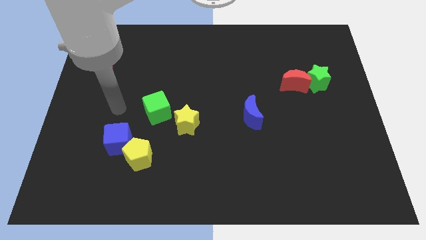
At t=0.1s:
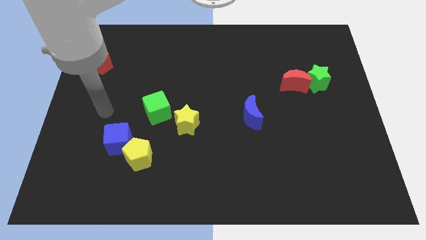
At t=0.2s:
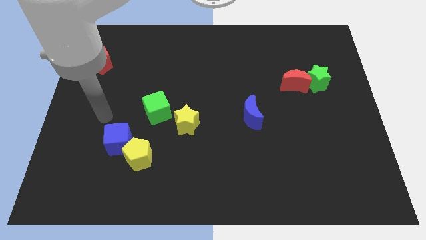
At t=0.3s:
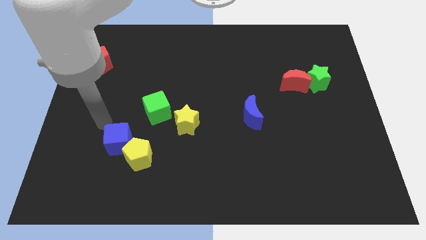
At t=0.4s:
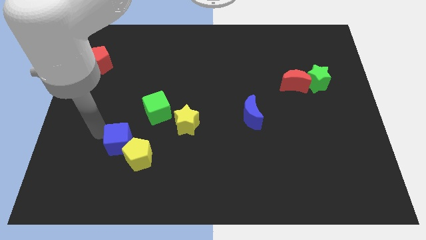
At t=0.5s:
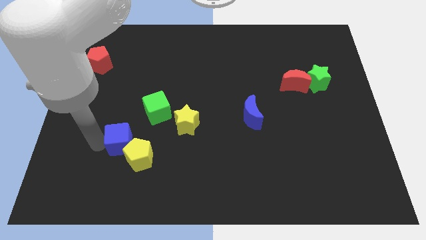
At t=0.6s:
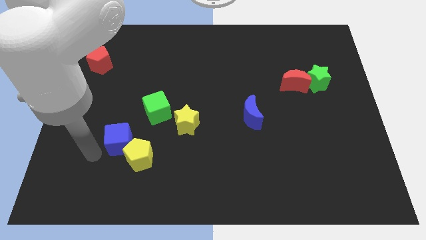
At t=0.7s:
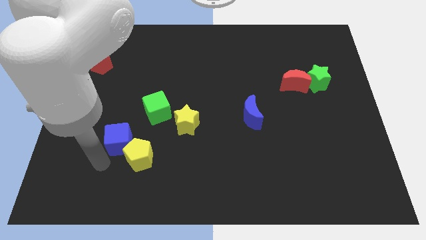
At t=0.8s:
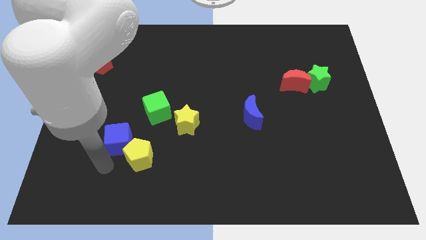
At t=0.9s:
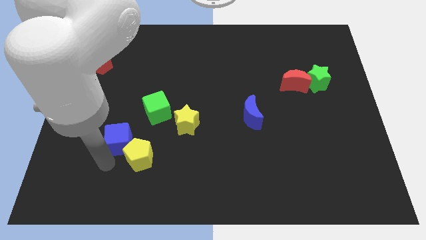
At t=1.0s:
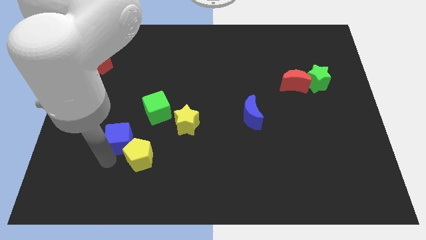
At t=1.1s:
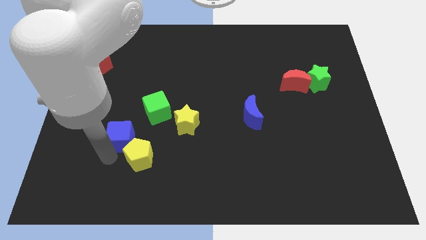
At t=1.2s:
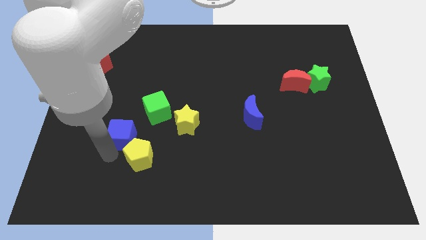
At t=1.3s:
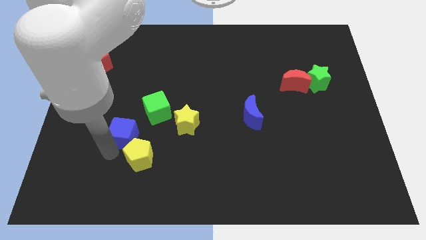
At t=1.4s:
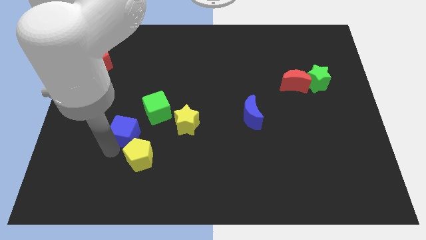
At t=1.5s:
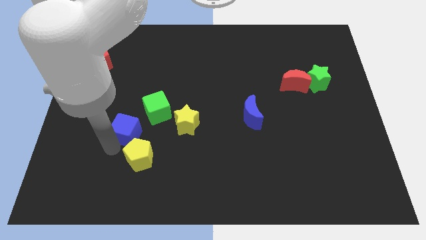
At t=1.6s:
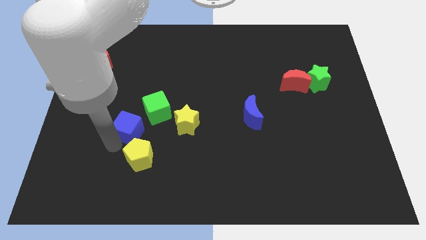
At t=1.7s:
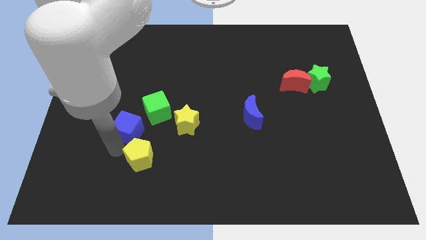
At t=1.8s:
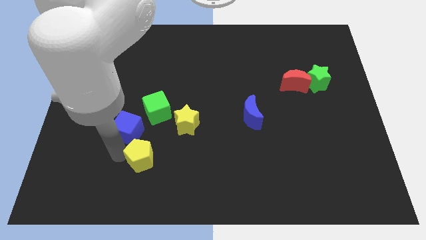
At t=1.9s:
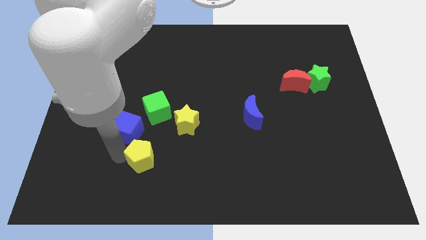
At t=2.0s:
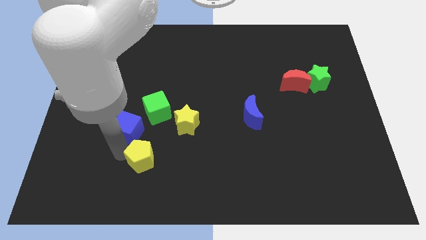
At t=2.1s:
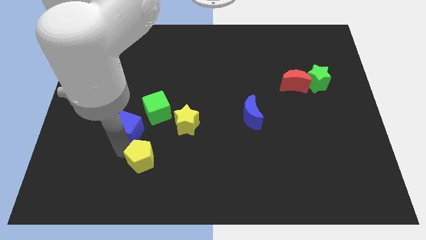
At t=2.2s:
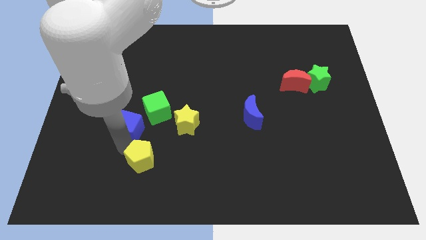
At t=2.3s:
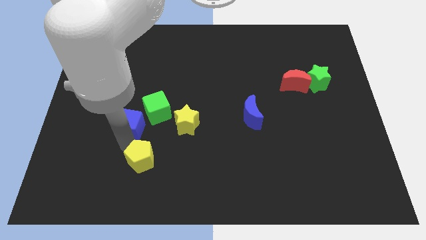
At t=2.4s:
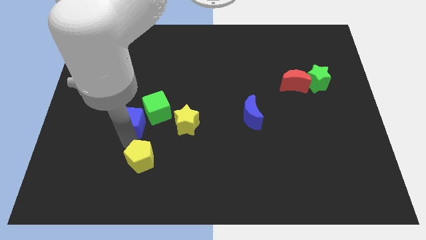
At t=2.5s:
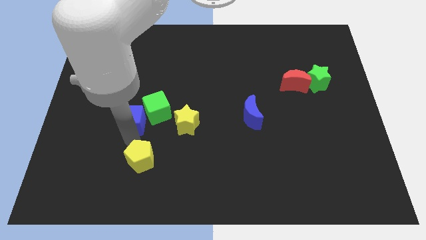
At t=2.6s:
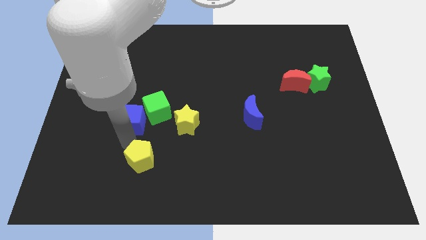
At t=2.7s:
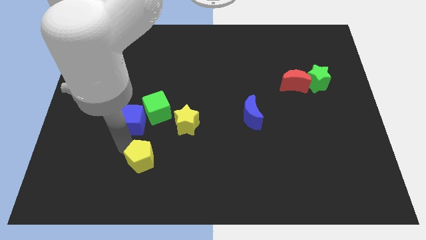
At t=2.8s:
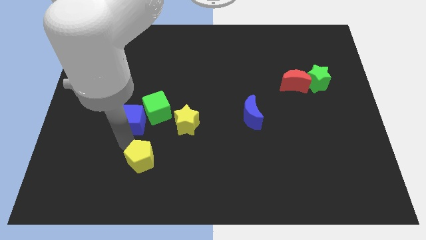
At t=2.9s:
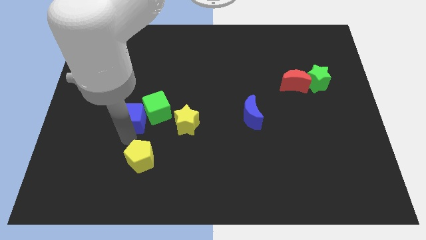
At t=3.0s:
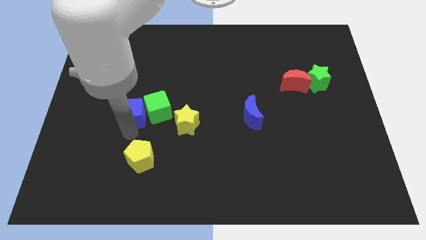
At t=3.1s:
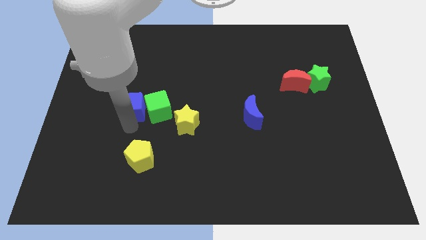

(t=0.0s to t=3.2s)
slightly move the blue cube diagonally up and right

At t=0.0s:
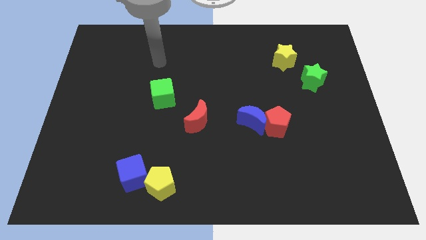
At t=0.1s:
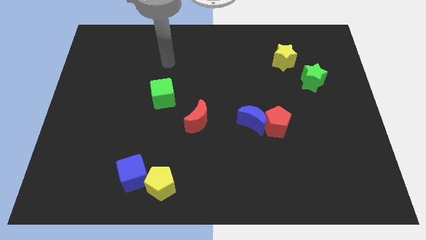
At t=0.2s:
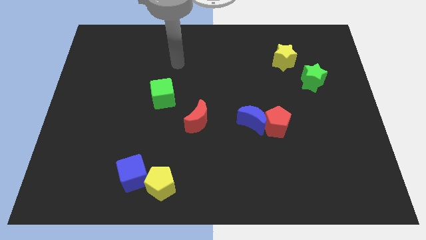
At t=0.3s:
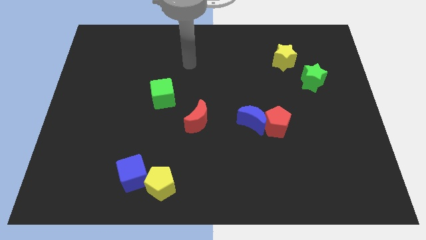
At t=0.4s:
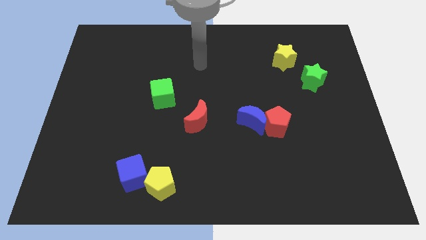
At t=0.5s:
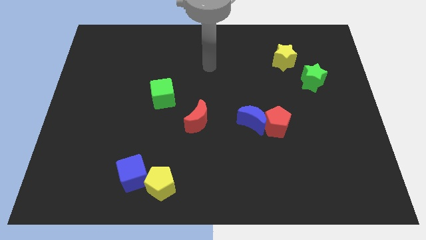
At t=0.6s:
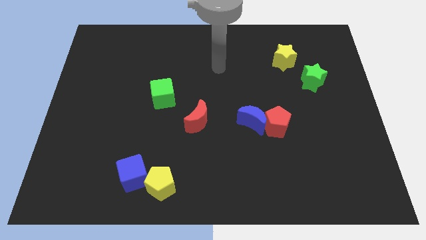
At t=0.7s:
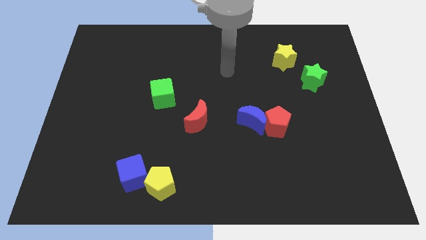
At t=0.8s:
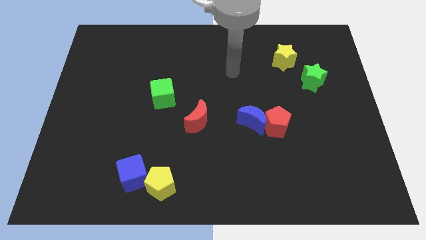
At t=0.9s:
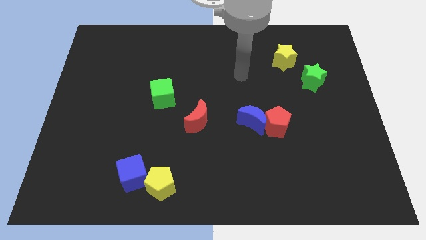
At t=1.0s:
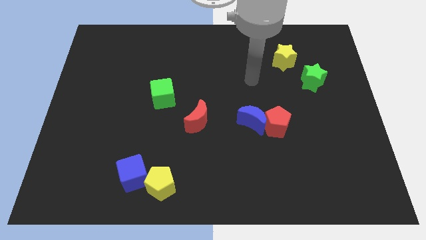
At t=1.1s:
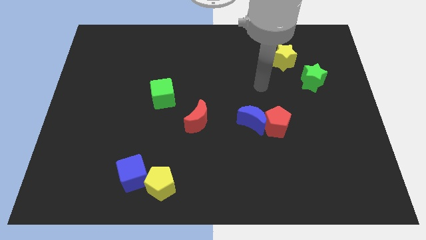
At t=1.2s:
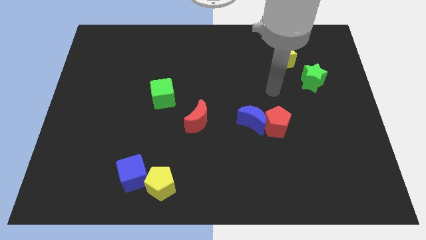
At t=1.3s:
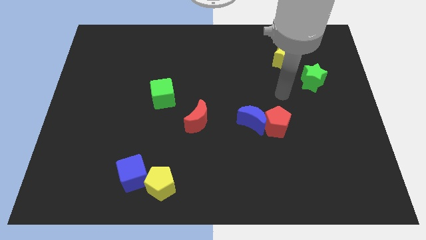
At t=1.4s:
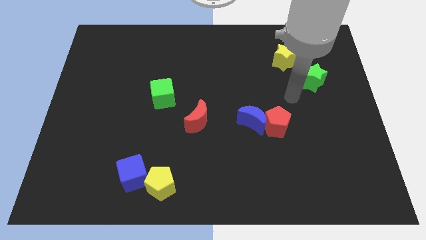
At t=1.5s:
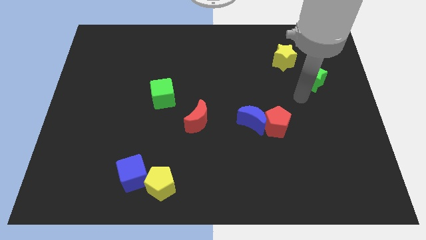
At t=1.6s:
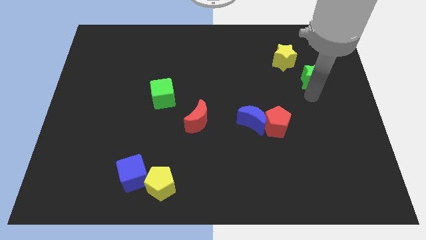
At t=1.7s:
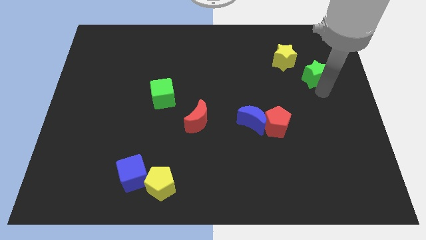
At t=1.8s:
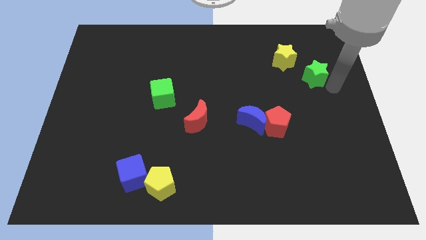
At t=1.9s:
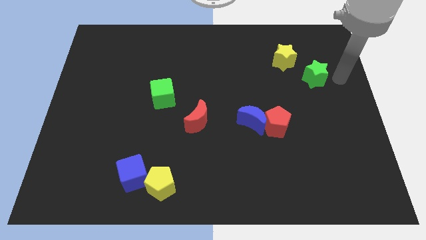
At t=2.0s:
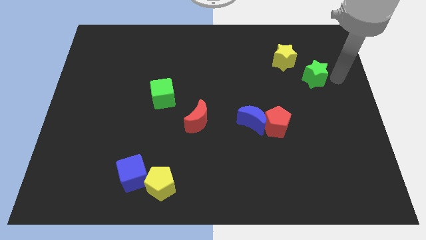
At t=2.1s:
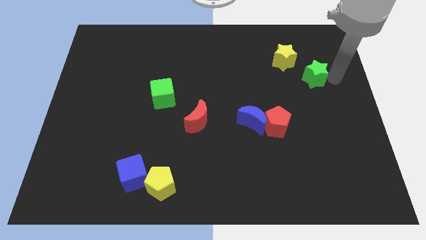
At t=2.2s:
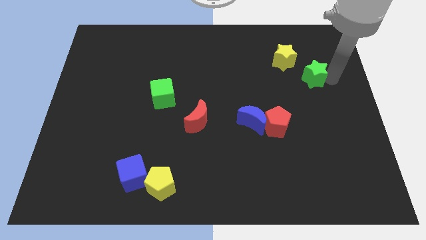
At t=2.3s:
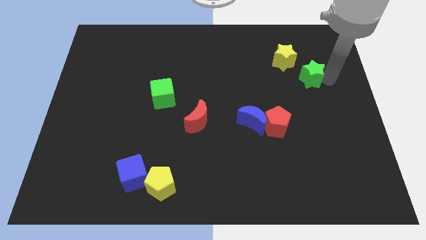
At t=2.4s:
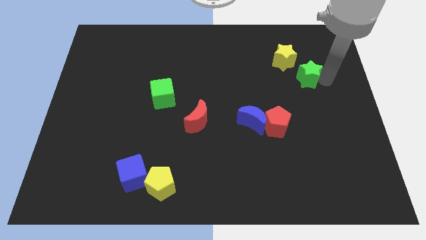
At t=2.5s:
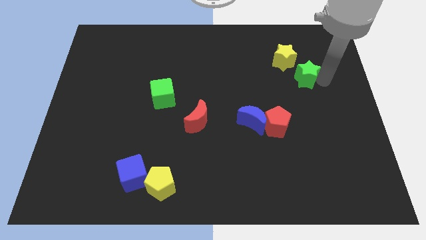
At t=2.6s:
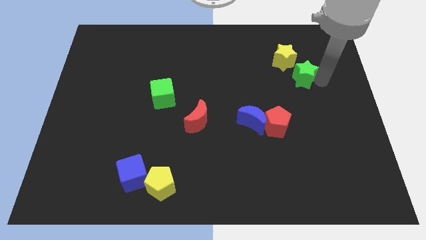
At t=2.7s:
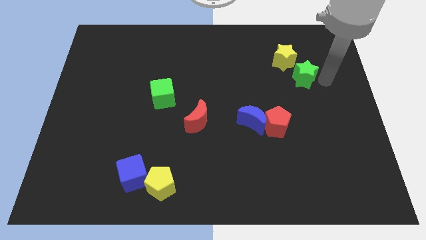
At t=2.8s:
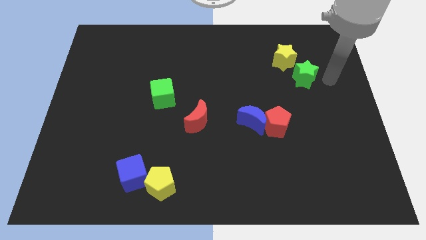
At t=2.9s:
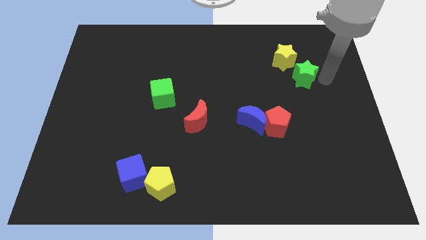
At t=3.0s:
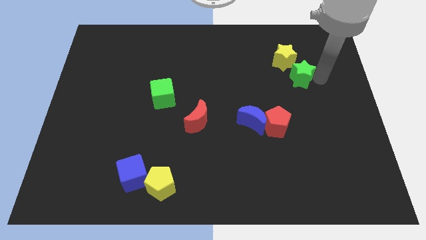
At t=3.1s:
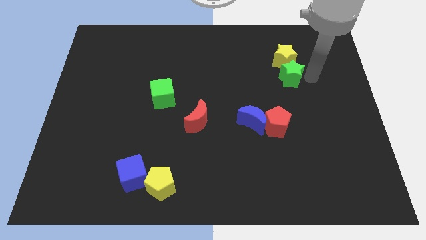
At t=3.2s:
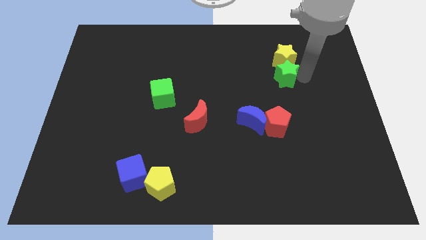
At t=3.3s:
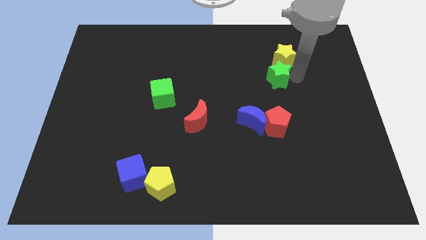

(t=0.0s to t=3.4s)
move the green star left a little

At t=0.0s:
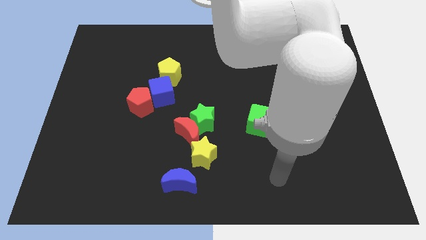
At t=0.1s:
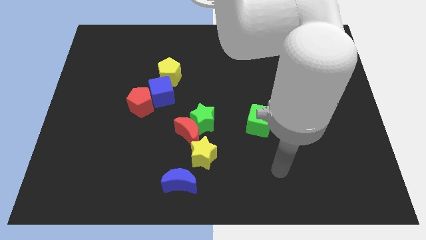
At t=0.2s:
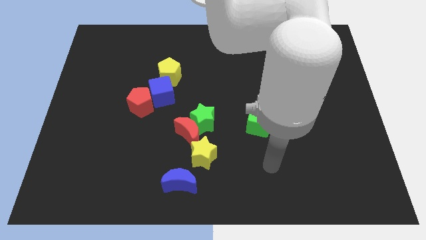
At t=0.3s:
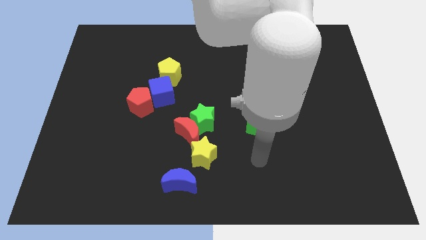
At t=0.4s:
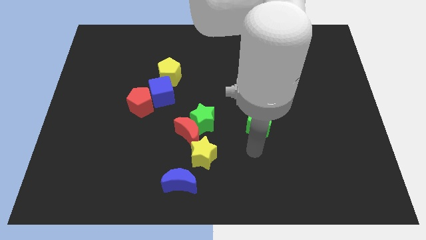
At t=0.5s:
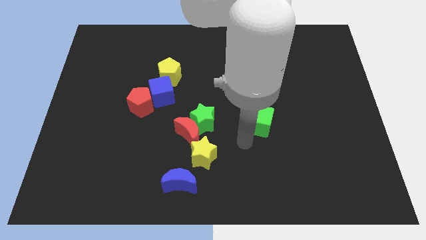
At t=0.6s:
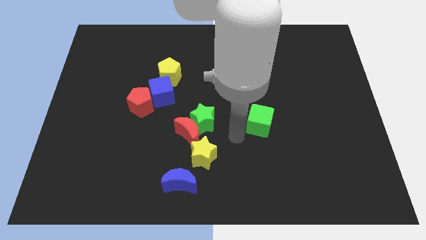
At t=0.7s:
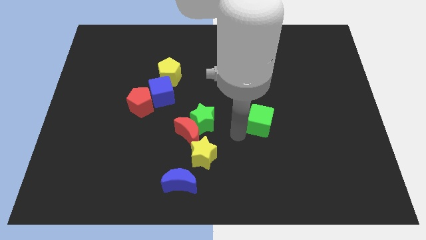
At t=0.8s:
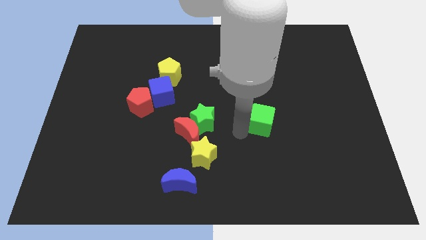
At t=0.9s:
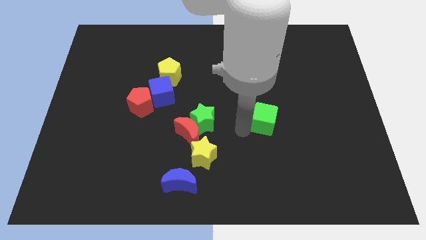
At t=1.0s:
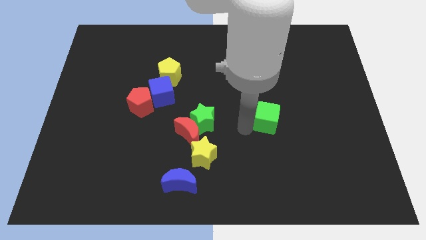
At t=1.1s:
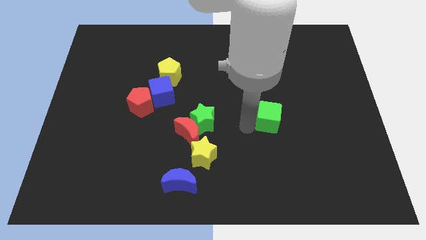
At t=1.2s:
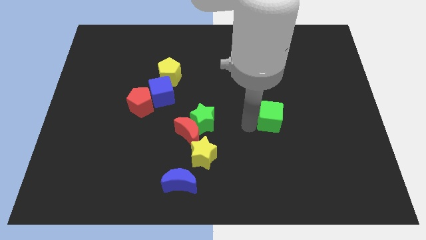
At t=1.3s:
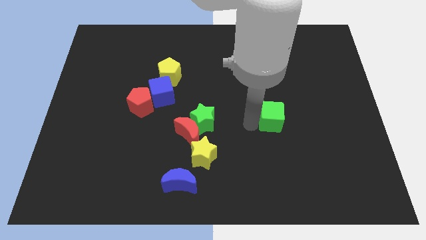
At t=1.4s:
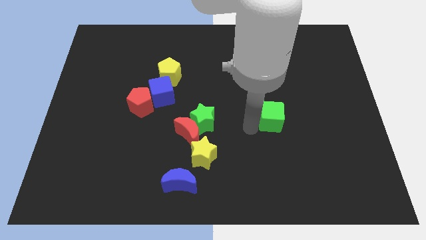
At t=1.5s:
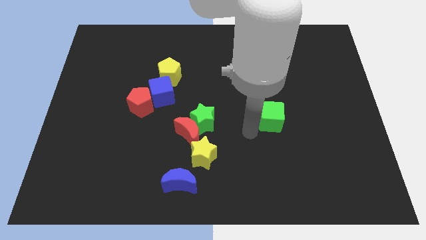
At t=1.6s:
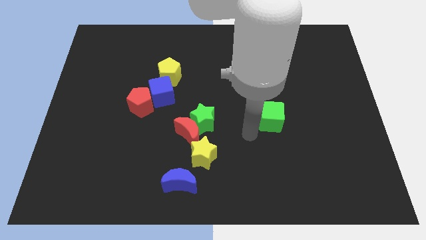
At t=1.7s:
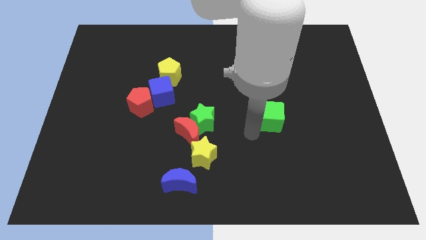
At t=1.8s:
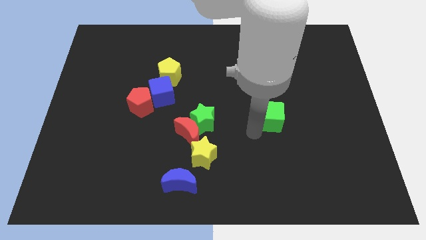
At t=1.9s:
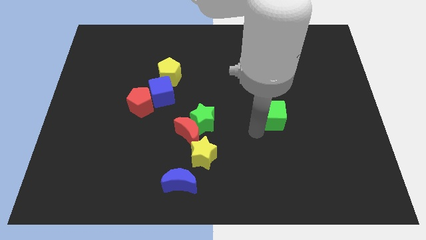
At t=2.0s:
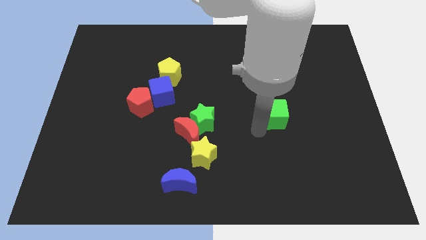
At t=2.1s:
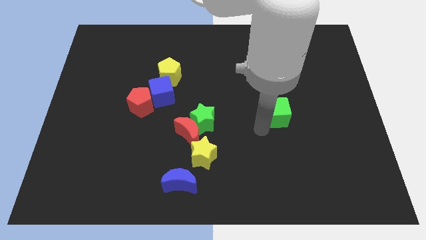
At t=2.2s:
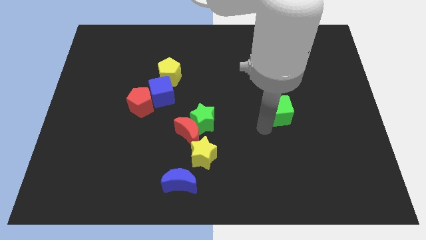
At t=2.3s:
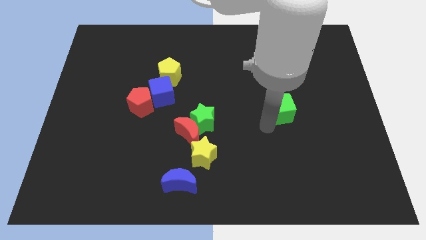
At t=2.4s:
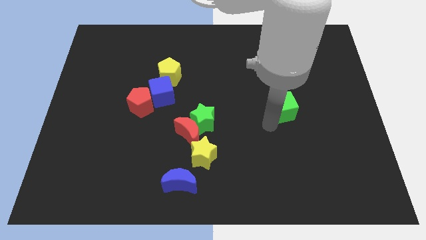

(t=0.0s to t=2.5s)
slightly slide the green cube up and right diagonally
